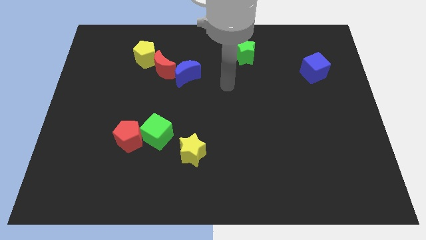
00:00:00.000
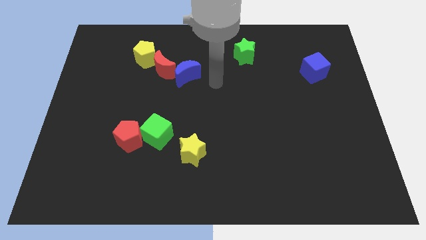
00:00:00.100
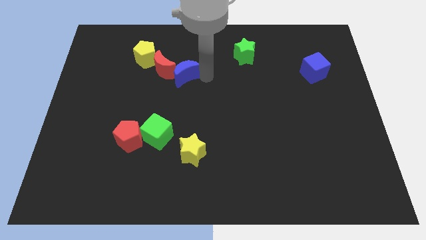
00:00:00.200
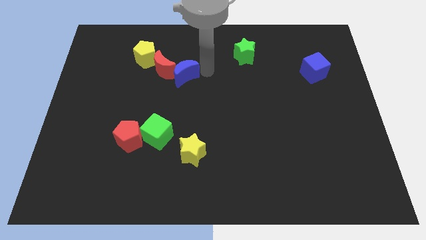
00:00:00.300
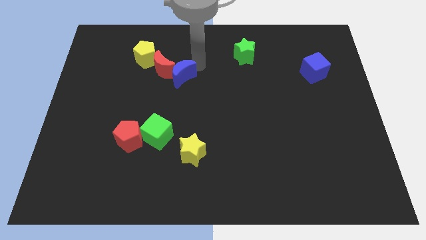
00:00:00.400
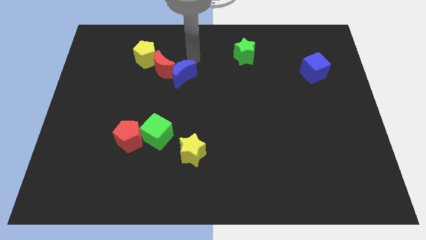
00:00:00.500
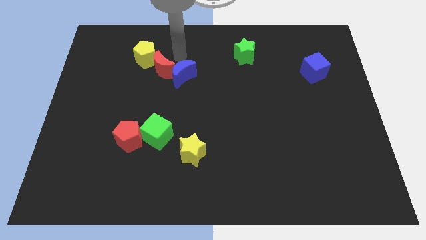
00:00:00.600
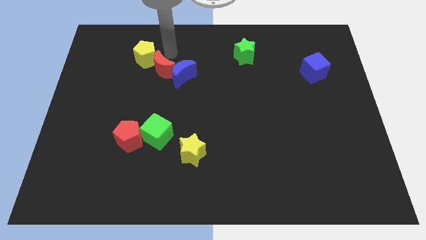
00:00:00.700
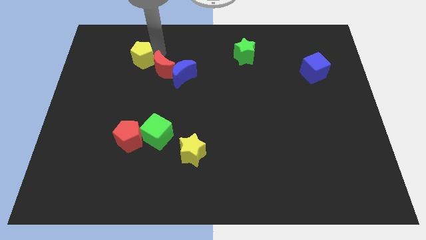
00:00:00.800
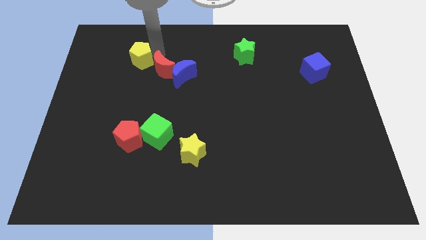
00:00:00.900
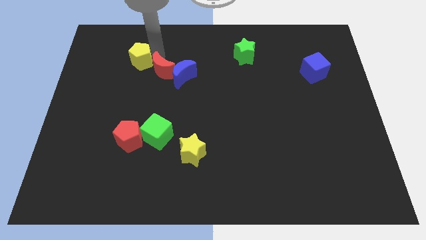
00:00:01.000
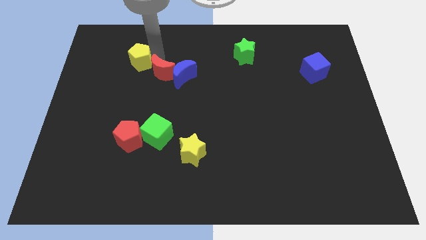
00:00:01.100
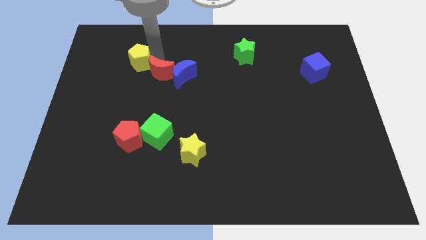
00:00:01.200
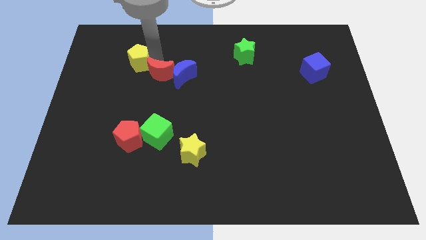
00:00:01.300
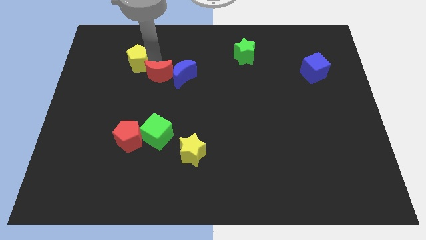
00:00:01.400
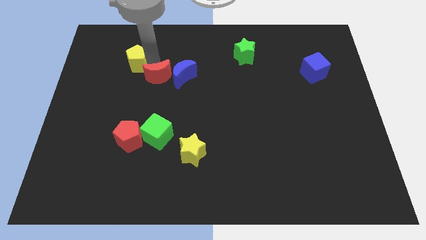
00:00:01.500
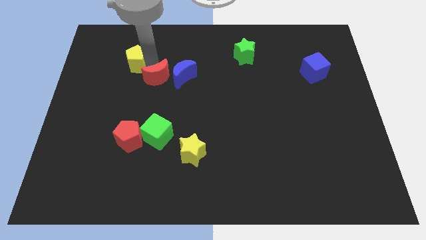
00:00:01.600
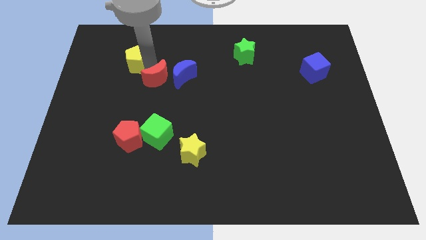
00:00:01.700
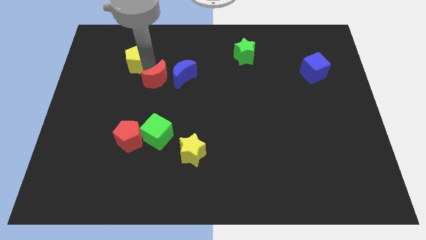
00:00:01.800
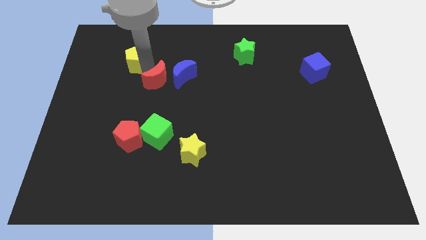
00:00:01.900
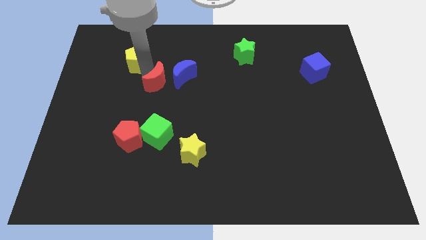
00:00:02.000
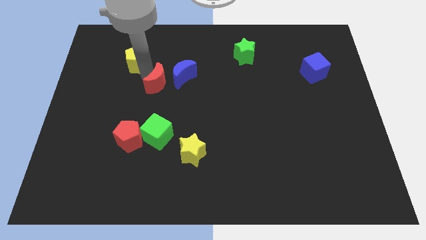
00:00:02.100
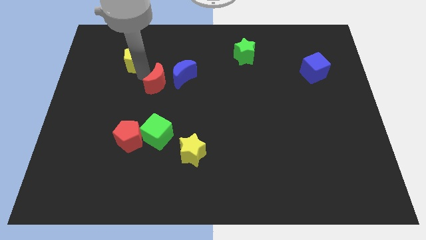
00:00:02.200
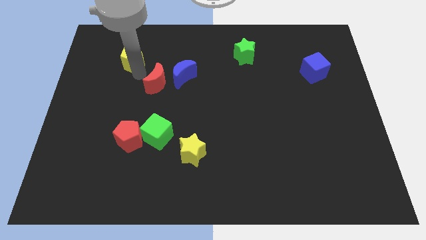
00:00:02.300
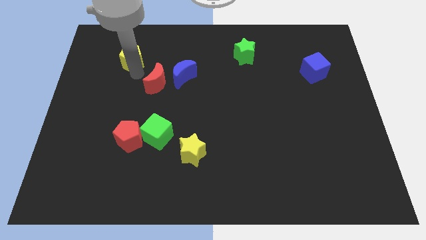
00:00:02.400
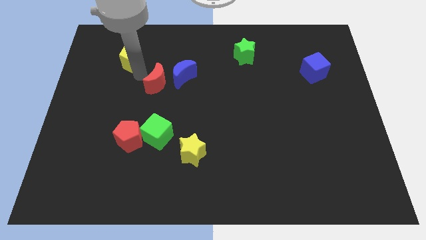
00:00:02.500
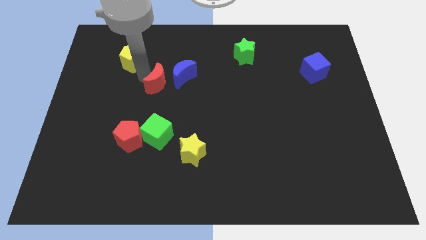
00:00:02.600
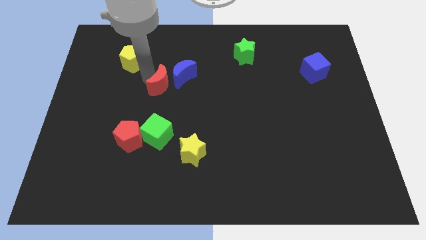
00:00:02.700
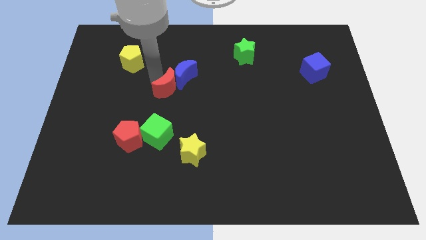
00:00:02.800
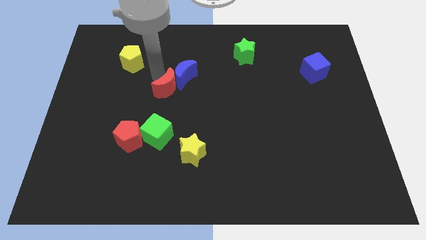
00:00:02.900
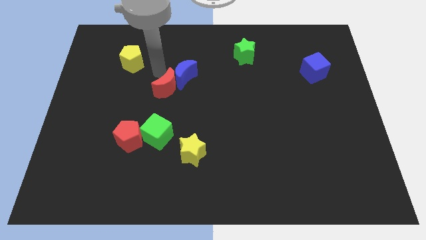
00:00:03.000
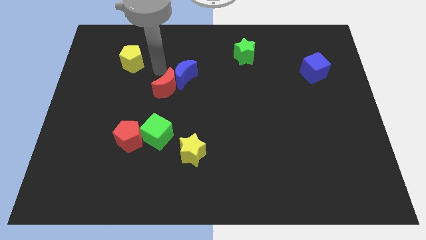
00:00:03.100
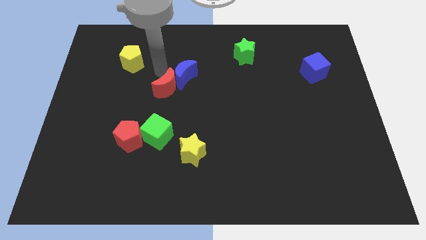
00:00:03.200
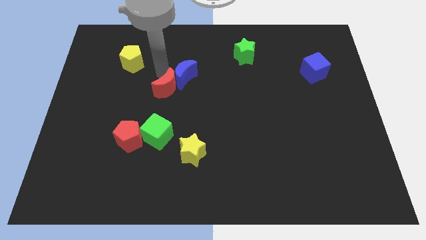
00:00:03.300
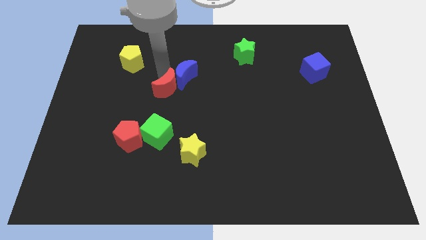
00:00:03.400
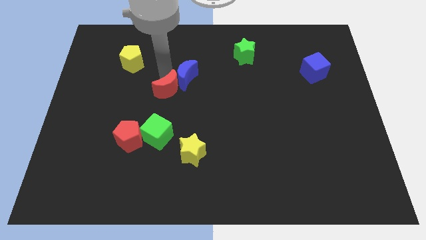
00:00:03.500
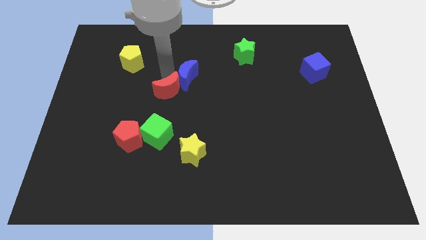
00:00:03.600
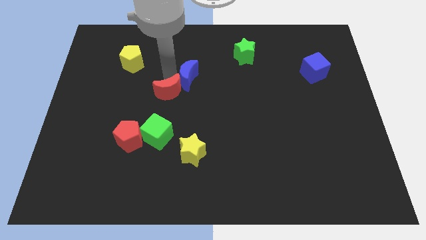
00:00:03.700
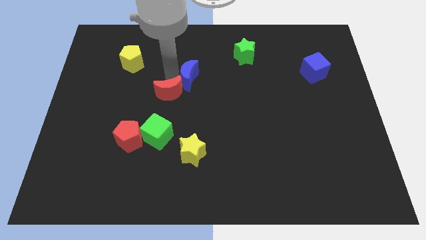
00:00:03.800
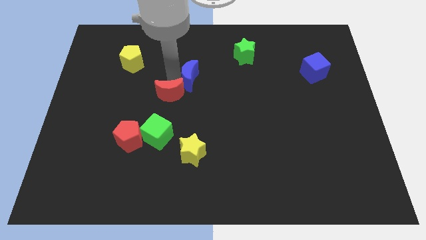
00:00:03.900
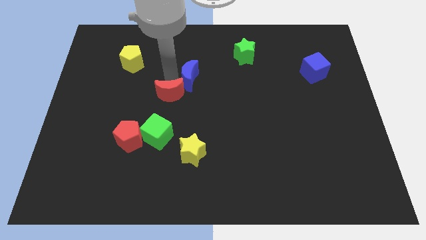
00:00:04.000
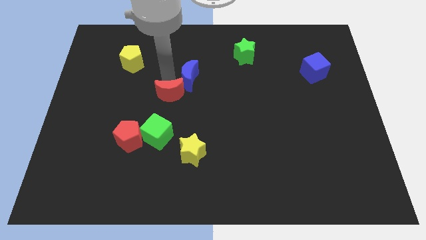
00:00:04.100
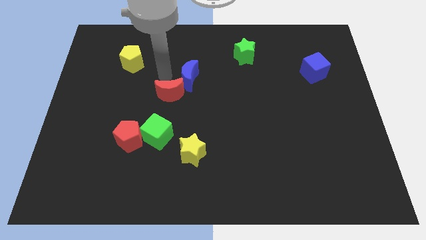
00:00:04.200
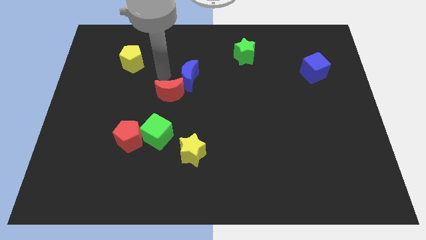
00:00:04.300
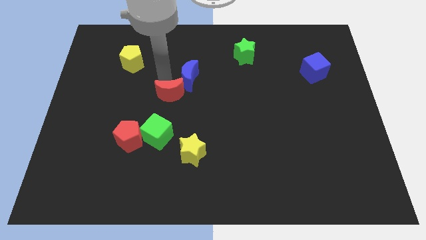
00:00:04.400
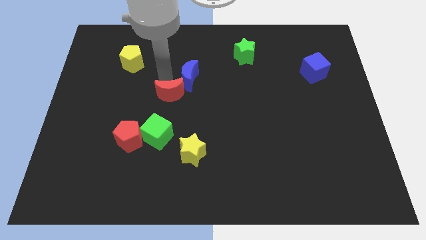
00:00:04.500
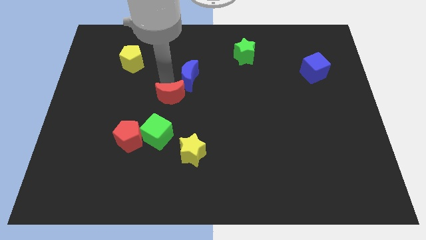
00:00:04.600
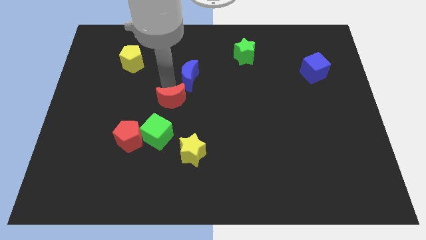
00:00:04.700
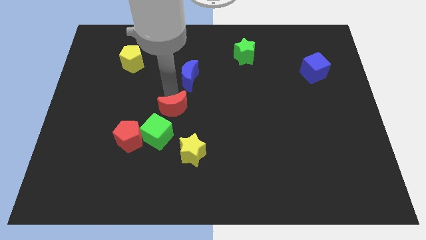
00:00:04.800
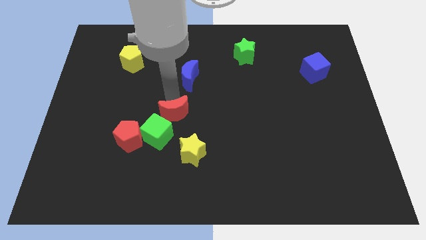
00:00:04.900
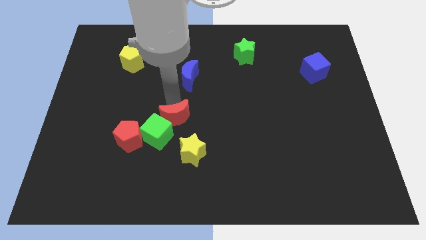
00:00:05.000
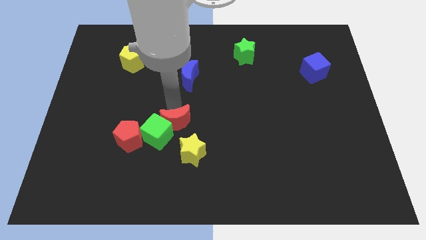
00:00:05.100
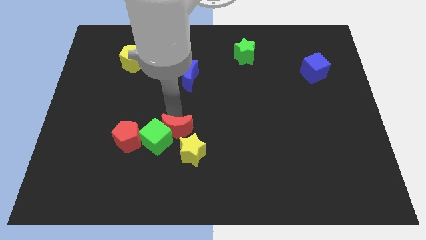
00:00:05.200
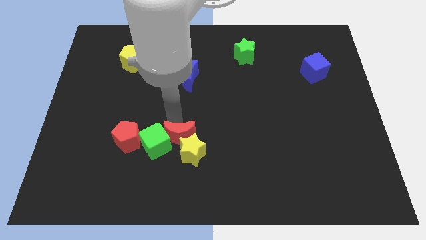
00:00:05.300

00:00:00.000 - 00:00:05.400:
slide the red moon close to the yellow star

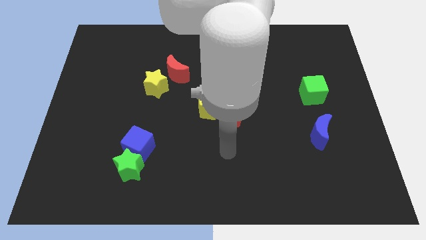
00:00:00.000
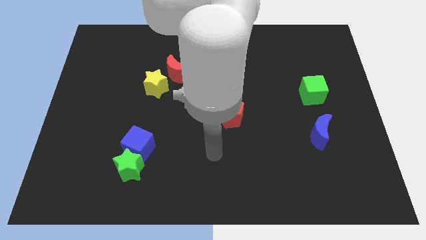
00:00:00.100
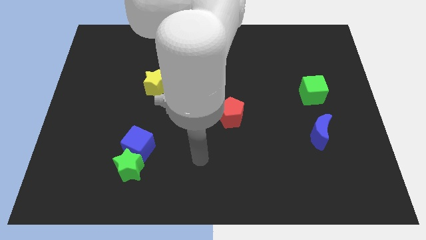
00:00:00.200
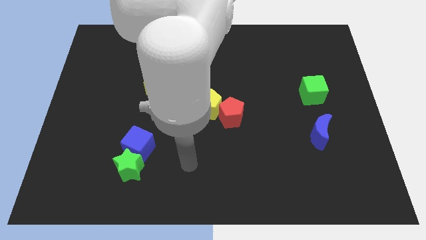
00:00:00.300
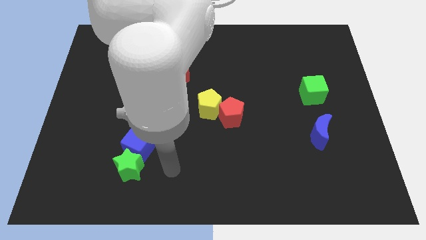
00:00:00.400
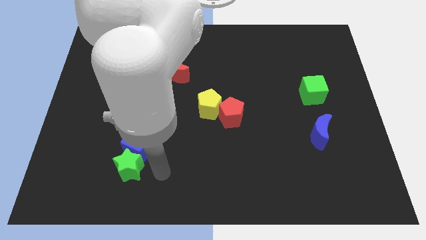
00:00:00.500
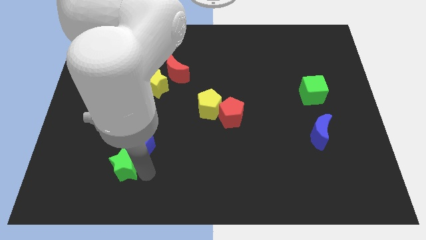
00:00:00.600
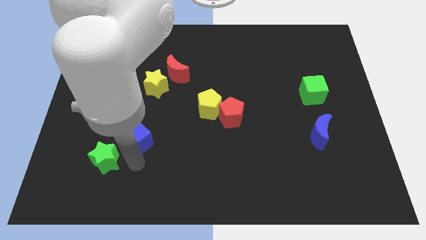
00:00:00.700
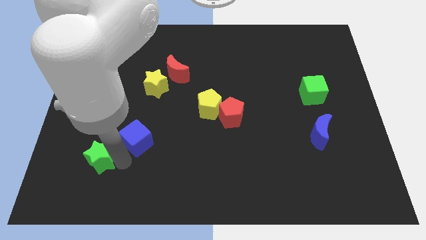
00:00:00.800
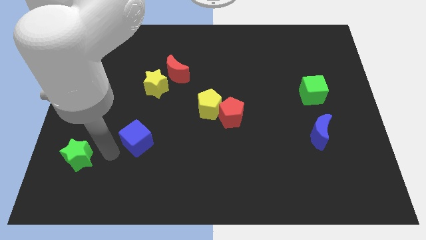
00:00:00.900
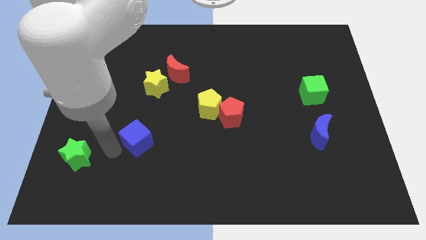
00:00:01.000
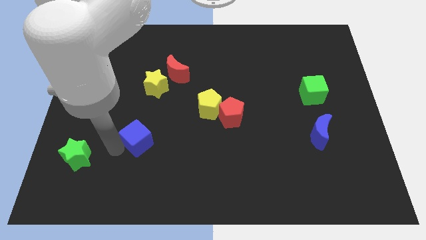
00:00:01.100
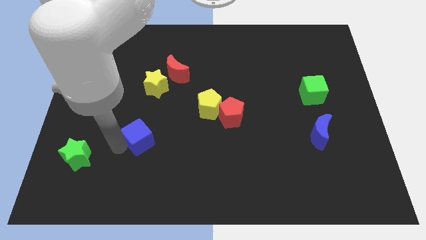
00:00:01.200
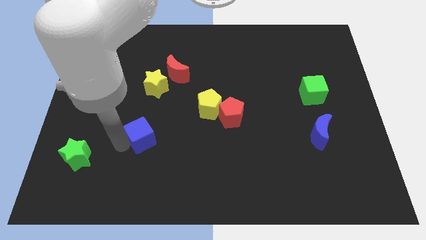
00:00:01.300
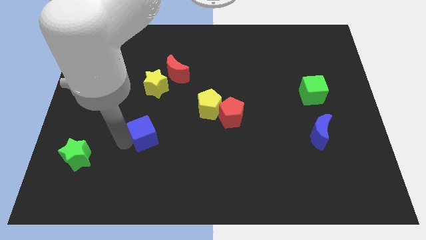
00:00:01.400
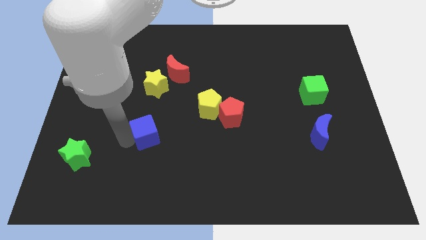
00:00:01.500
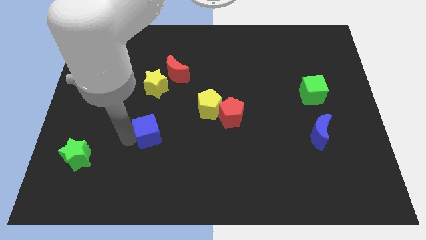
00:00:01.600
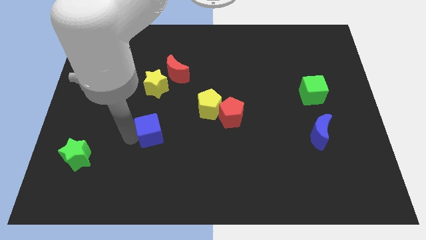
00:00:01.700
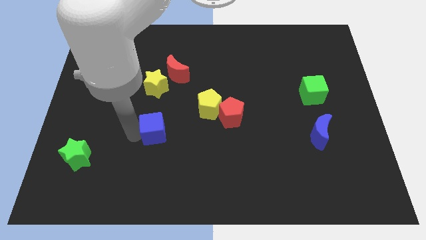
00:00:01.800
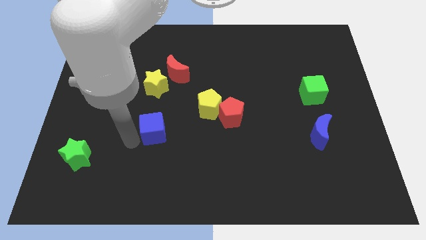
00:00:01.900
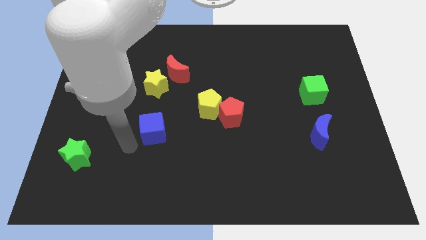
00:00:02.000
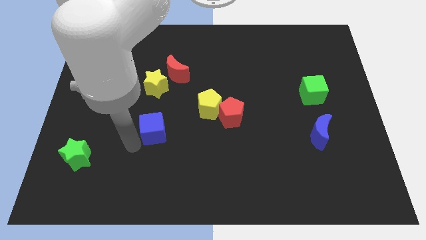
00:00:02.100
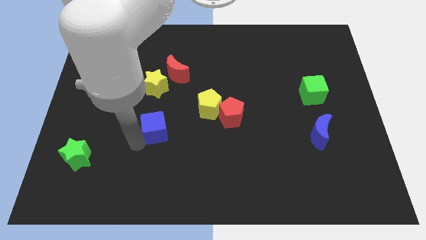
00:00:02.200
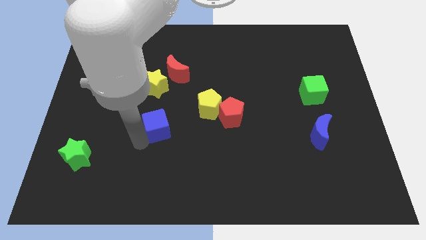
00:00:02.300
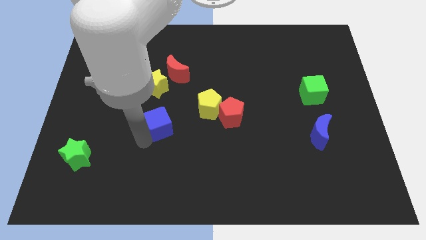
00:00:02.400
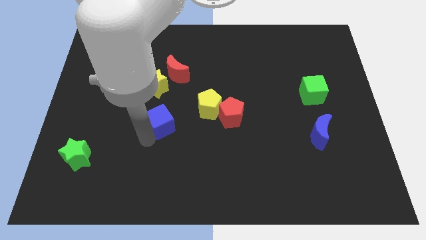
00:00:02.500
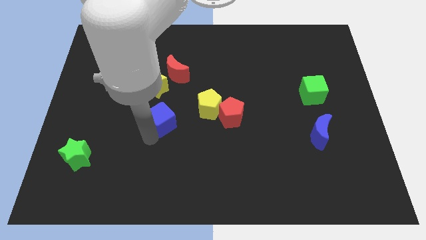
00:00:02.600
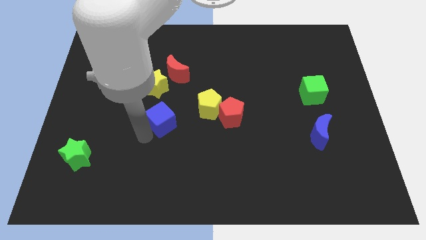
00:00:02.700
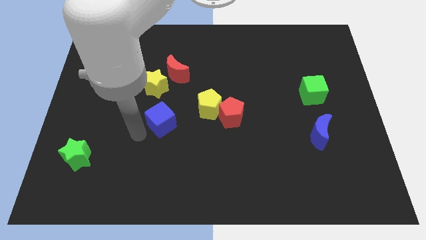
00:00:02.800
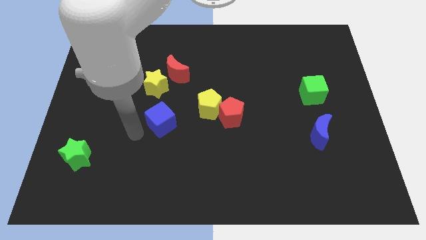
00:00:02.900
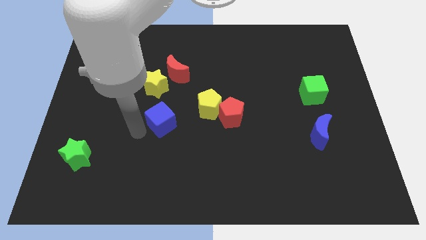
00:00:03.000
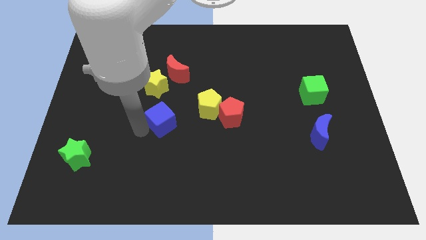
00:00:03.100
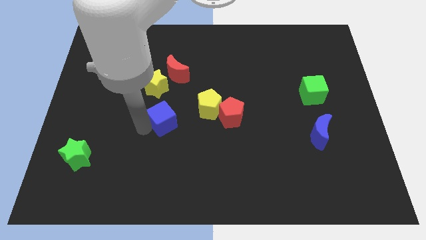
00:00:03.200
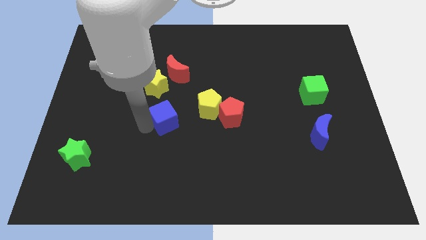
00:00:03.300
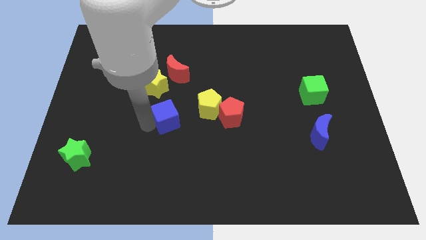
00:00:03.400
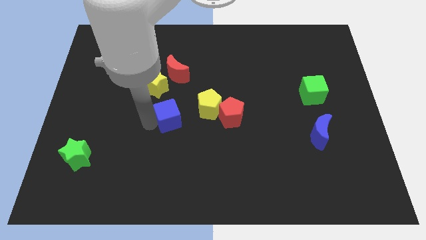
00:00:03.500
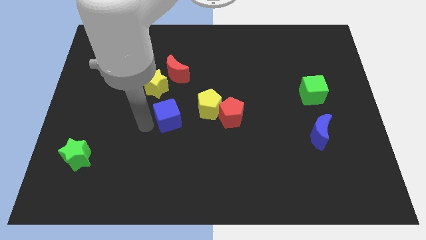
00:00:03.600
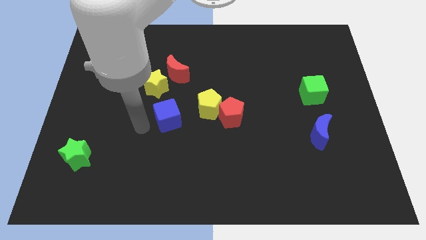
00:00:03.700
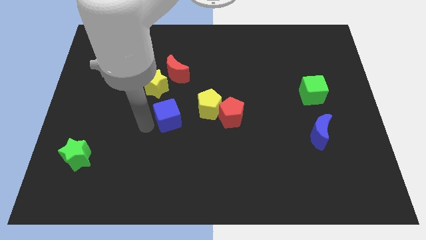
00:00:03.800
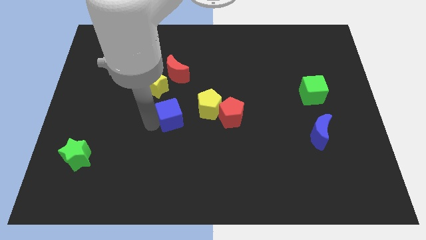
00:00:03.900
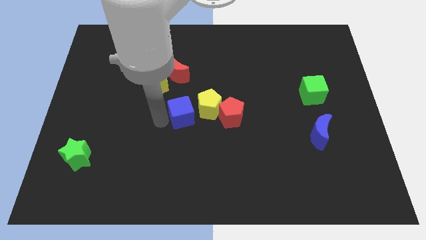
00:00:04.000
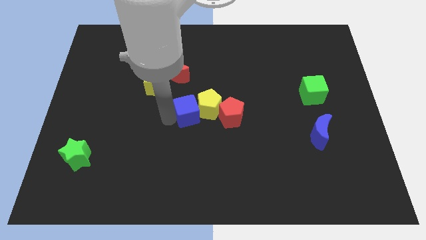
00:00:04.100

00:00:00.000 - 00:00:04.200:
push the blue cube towards the yellow pentagon
